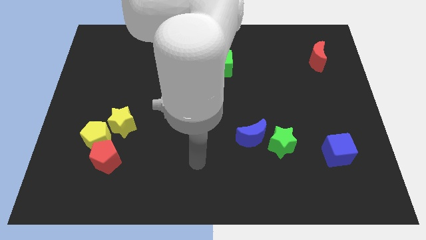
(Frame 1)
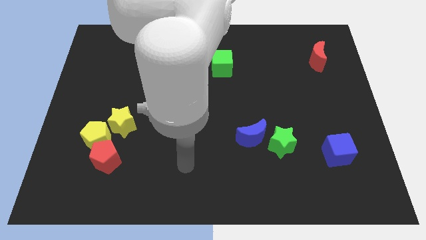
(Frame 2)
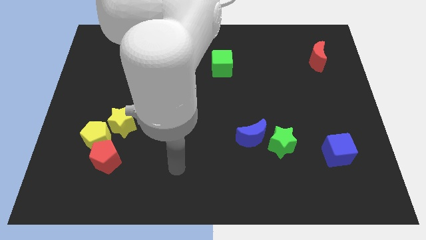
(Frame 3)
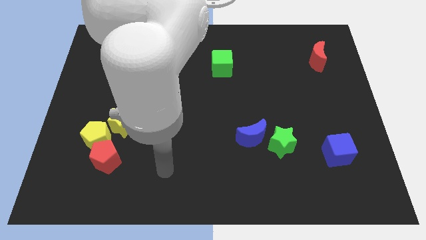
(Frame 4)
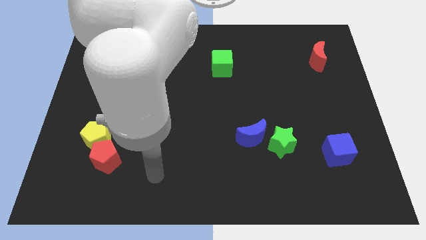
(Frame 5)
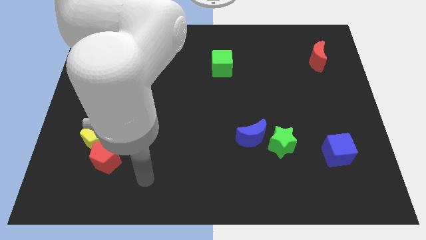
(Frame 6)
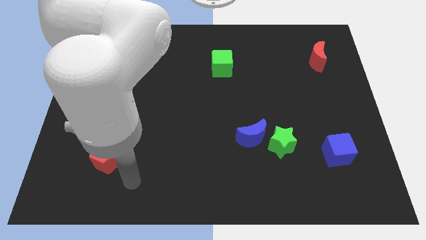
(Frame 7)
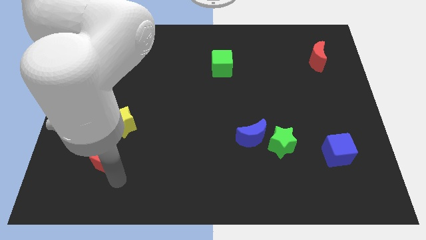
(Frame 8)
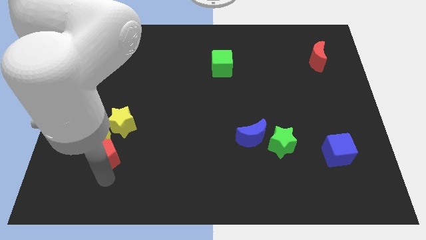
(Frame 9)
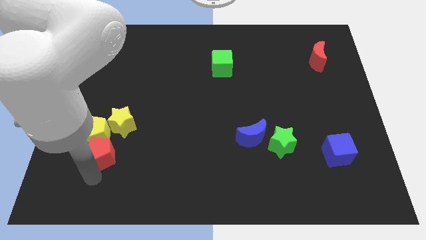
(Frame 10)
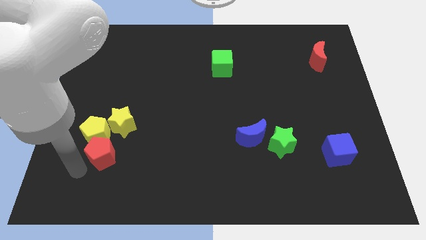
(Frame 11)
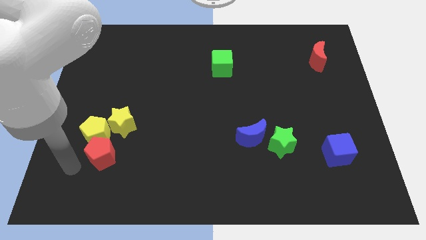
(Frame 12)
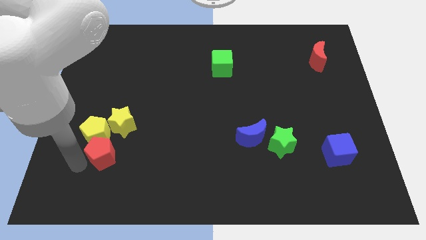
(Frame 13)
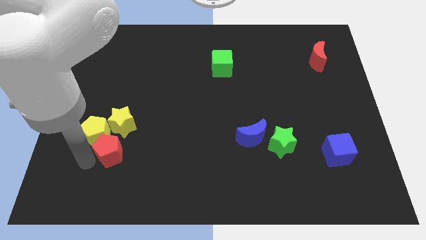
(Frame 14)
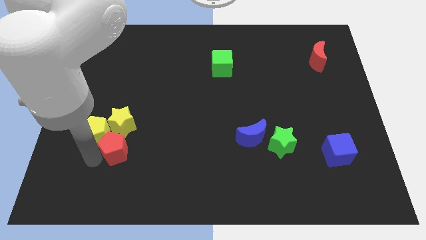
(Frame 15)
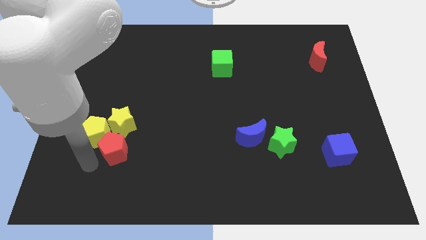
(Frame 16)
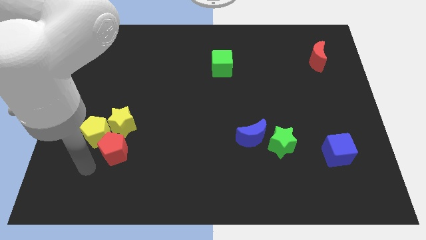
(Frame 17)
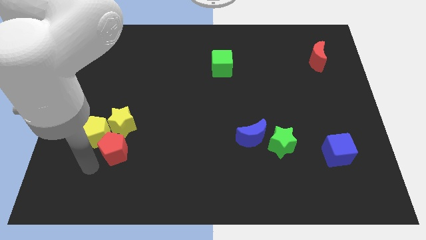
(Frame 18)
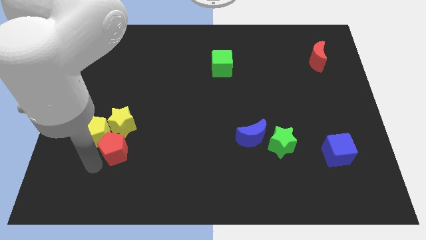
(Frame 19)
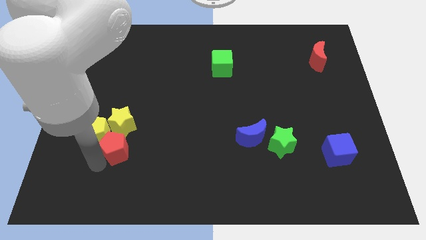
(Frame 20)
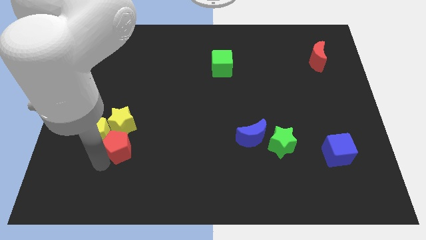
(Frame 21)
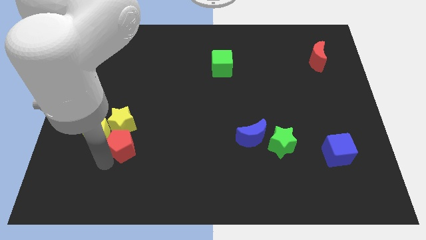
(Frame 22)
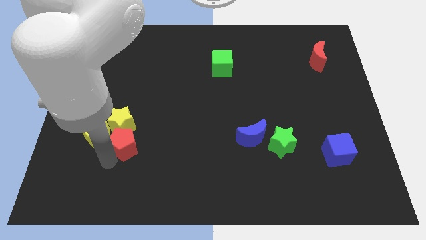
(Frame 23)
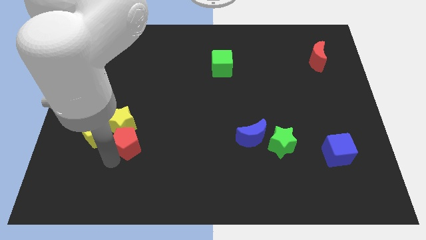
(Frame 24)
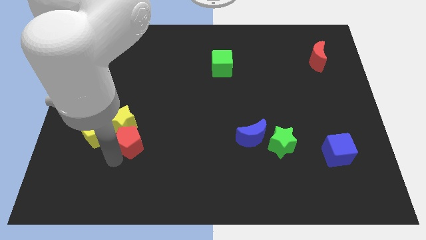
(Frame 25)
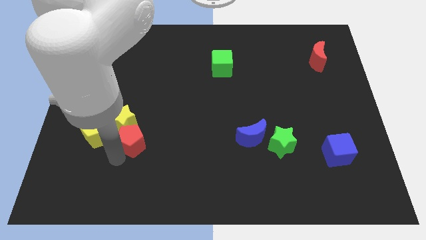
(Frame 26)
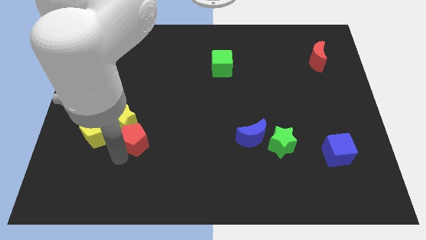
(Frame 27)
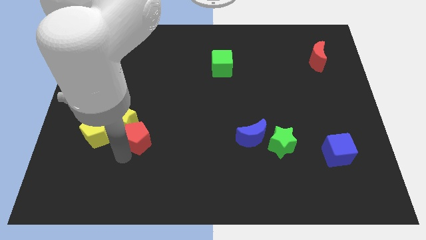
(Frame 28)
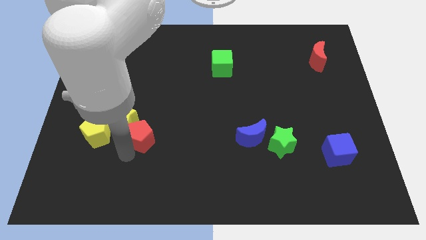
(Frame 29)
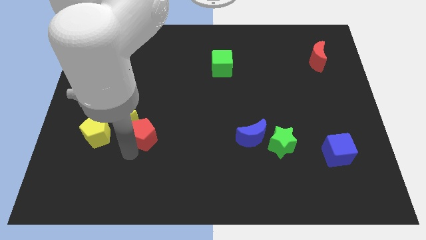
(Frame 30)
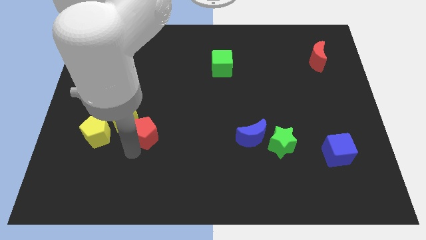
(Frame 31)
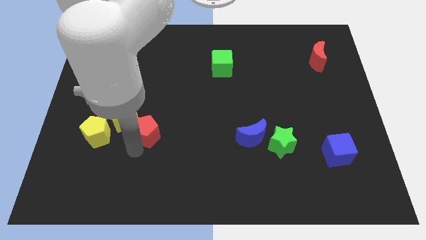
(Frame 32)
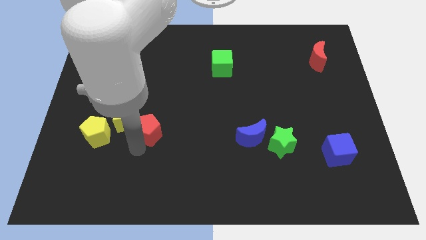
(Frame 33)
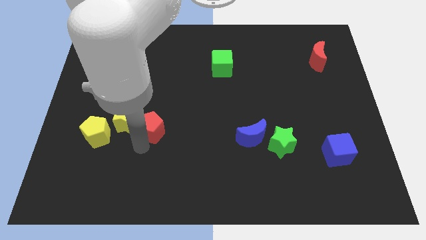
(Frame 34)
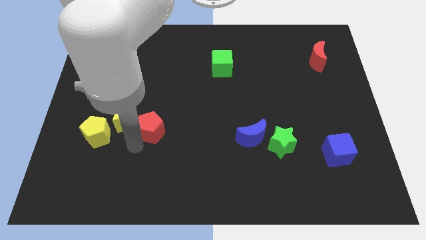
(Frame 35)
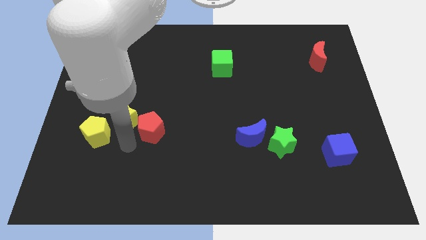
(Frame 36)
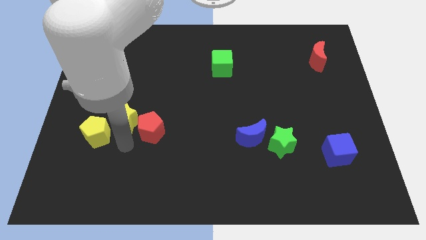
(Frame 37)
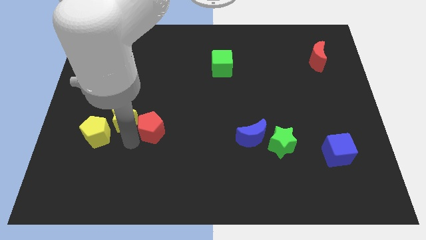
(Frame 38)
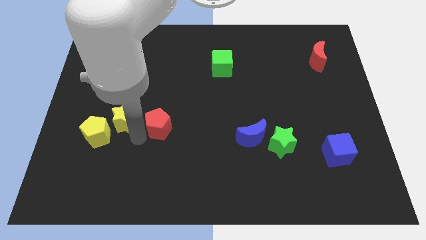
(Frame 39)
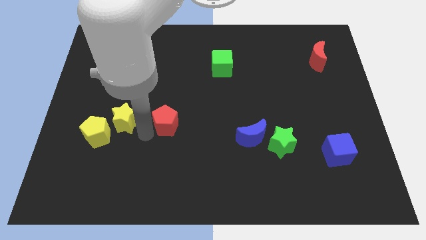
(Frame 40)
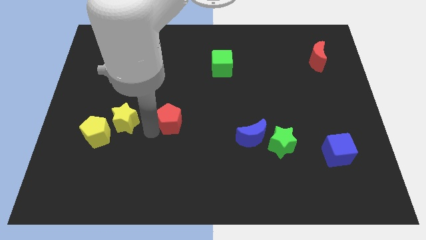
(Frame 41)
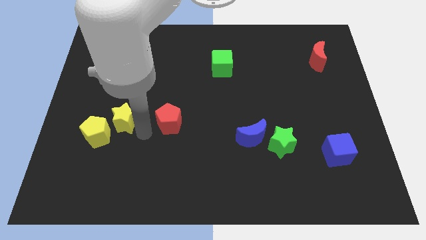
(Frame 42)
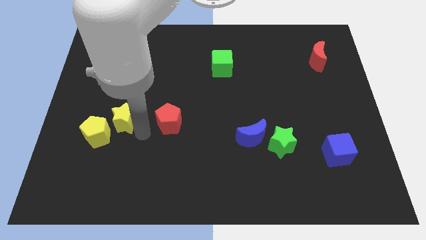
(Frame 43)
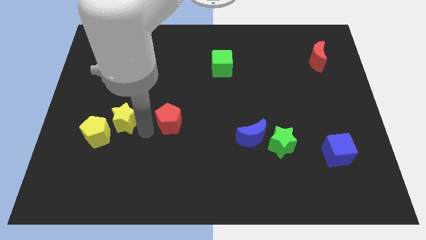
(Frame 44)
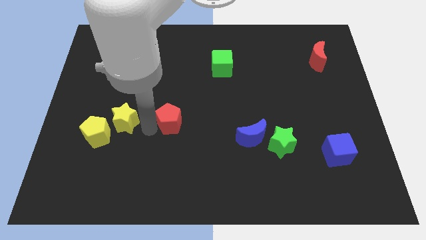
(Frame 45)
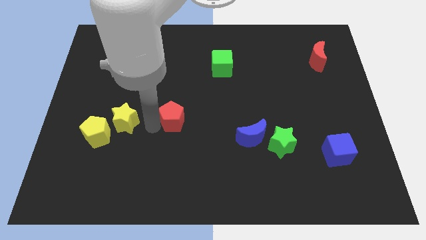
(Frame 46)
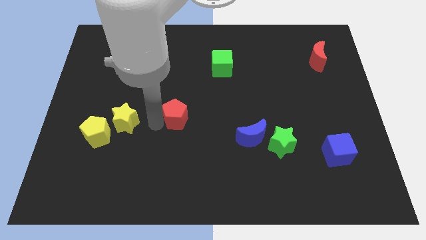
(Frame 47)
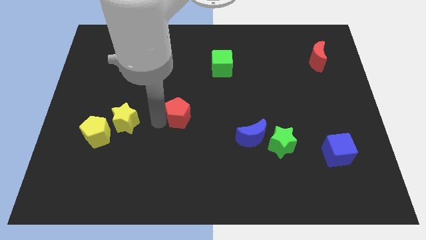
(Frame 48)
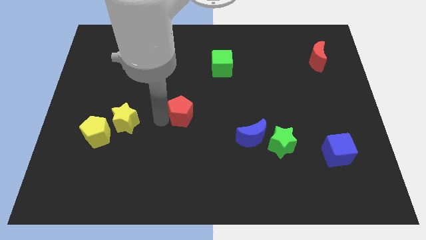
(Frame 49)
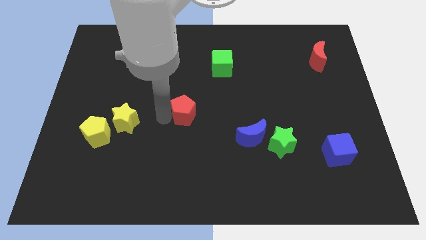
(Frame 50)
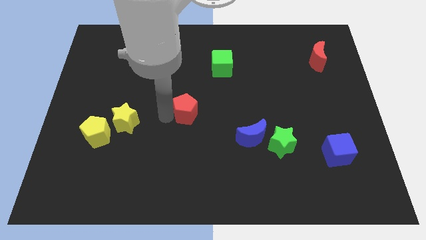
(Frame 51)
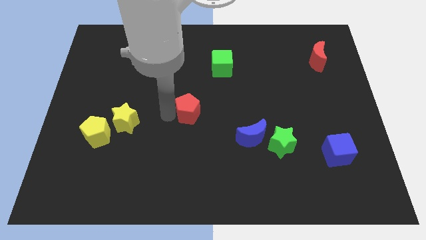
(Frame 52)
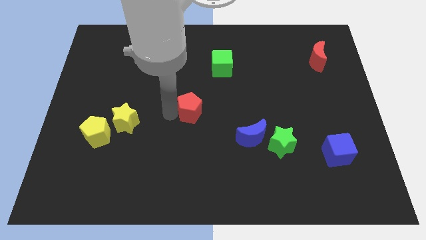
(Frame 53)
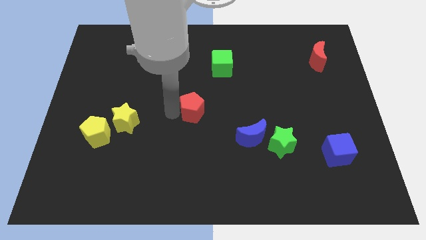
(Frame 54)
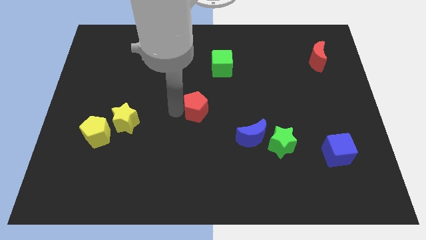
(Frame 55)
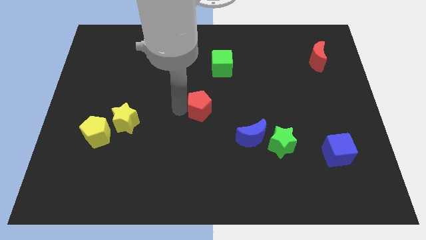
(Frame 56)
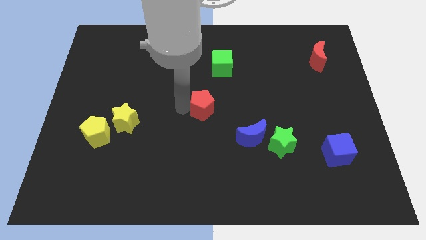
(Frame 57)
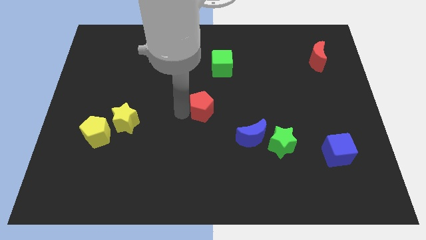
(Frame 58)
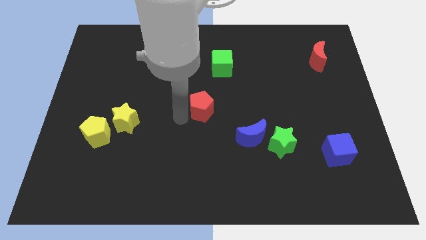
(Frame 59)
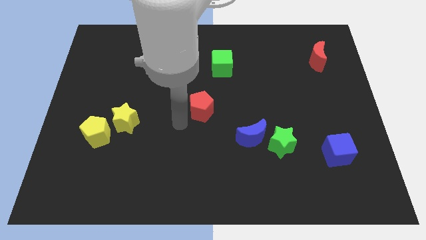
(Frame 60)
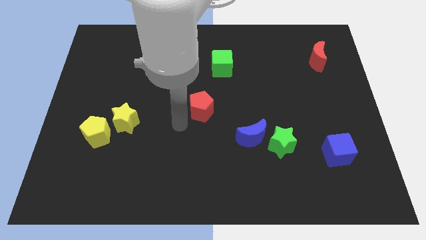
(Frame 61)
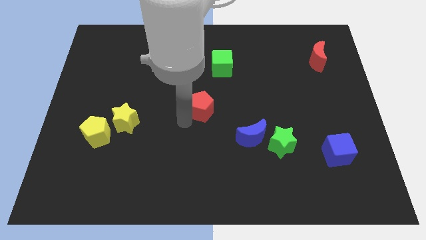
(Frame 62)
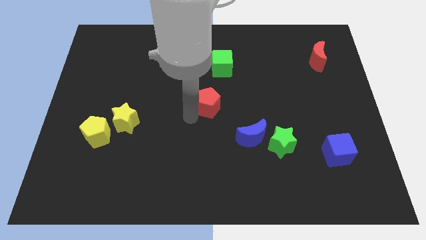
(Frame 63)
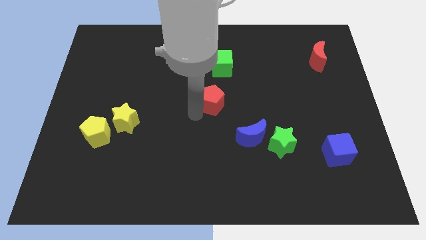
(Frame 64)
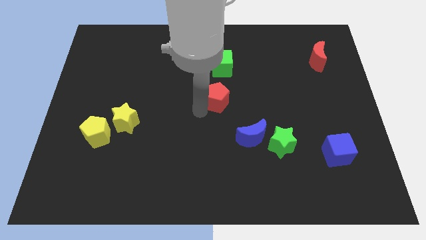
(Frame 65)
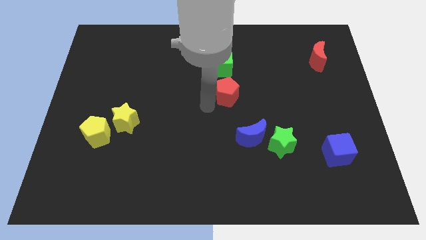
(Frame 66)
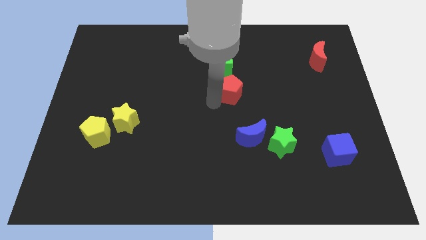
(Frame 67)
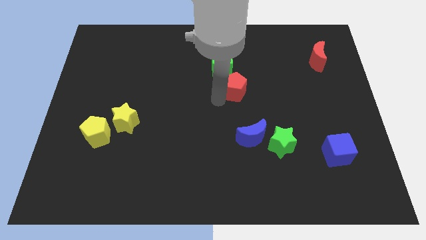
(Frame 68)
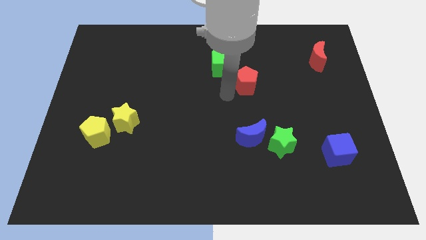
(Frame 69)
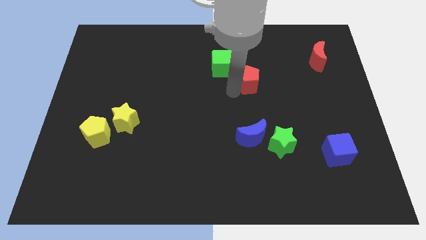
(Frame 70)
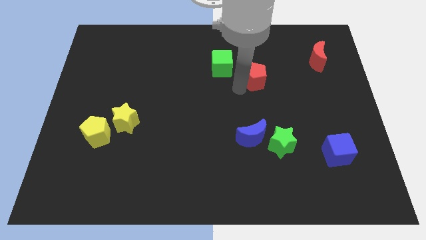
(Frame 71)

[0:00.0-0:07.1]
move the red pentagon just right of the green cube
